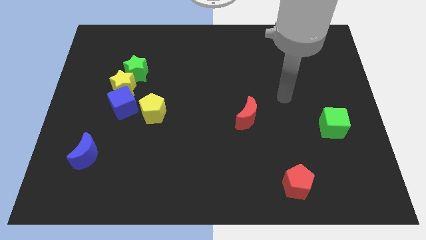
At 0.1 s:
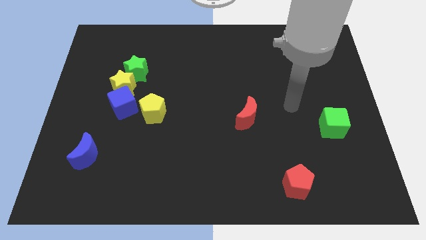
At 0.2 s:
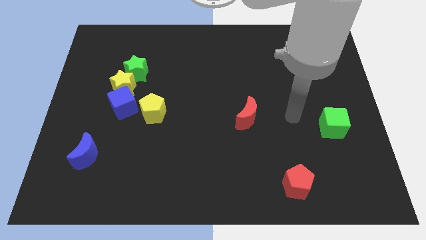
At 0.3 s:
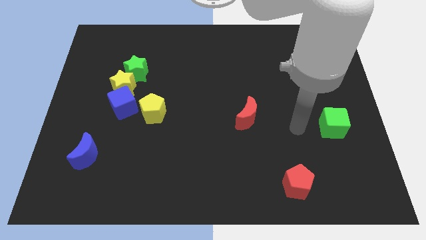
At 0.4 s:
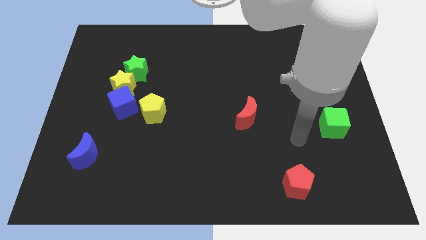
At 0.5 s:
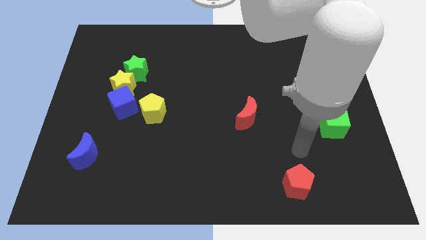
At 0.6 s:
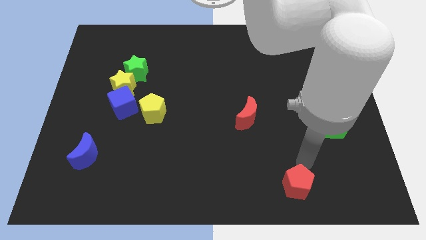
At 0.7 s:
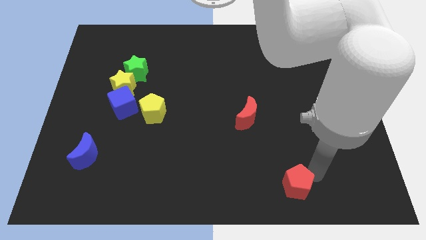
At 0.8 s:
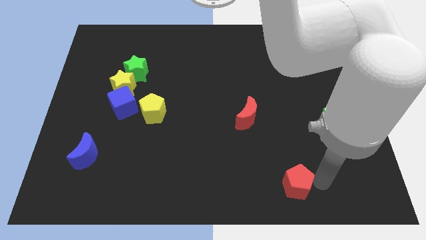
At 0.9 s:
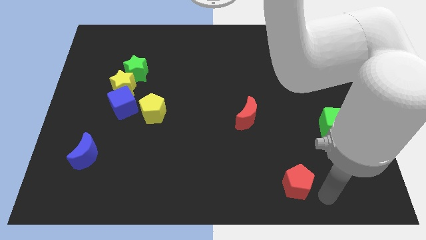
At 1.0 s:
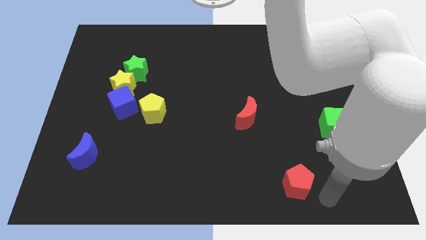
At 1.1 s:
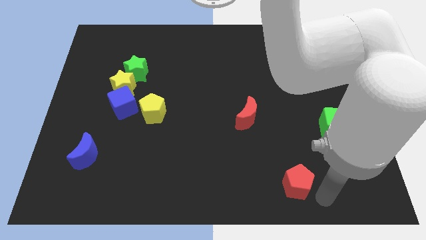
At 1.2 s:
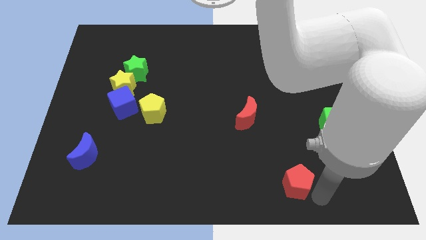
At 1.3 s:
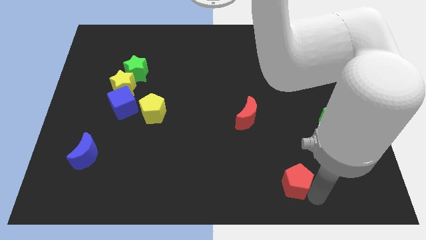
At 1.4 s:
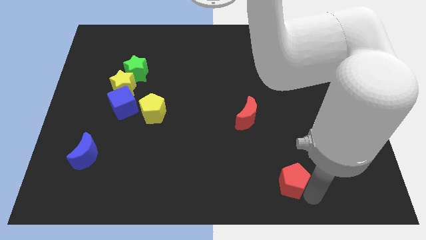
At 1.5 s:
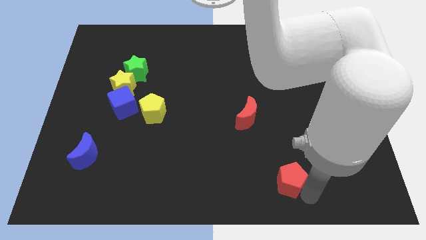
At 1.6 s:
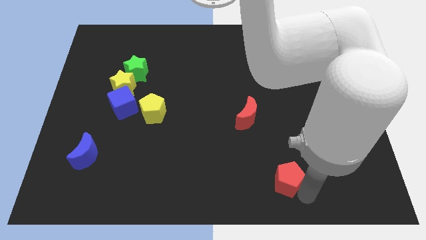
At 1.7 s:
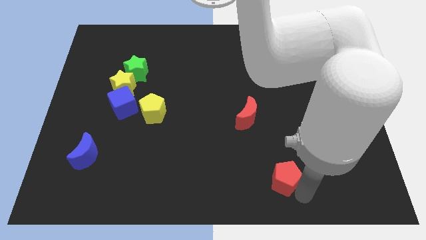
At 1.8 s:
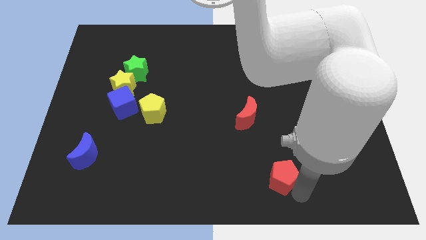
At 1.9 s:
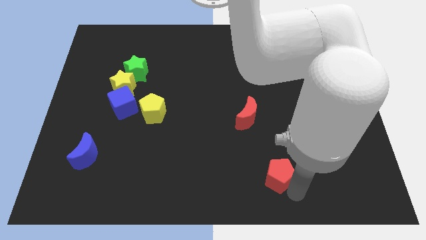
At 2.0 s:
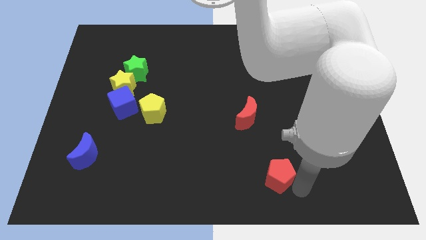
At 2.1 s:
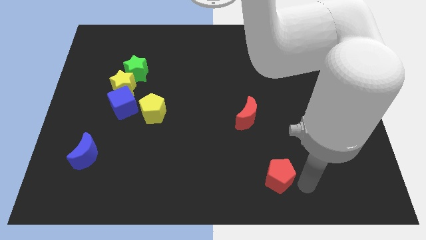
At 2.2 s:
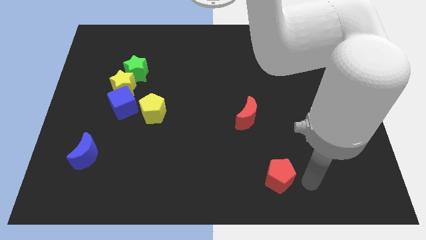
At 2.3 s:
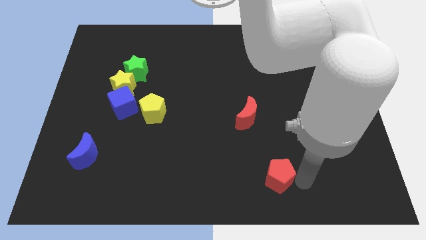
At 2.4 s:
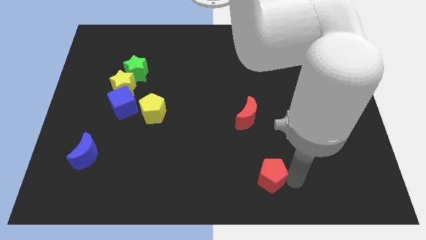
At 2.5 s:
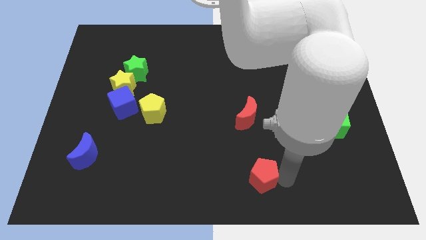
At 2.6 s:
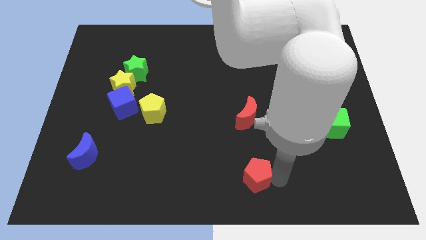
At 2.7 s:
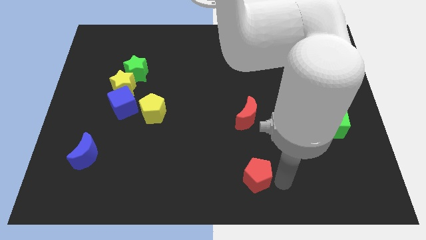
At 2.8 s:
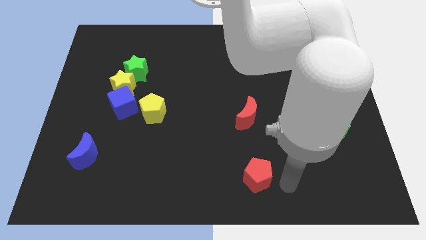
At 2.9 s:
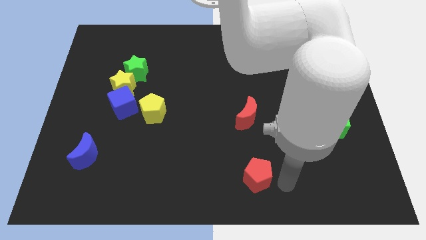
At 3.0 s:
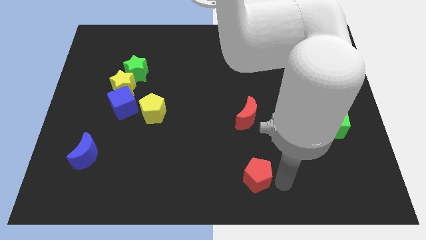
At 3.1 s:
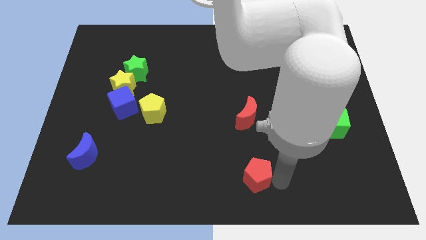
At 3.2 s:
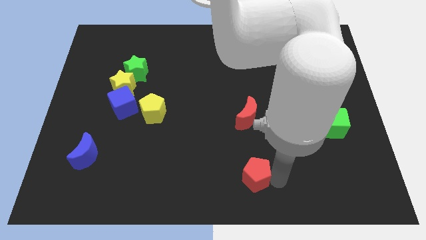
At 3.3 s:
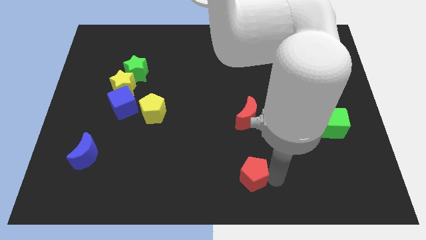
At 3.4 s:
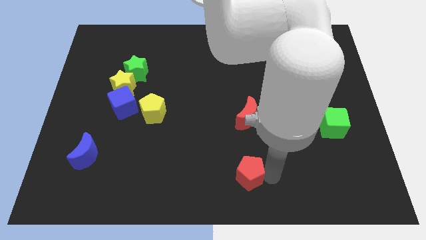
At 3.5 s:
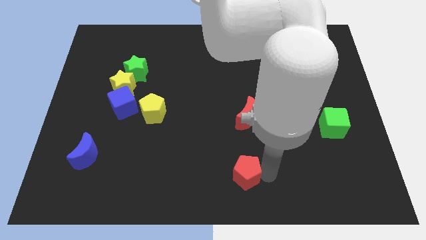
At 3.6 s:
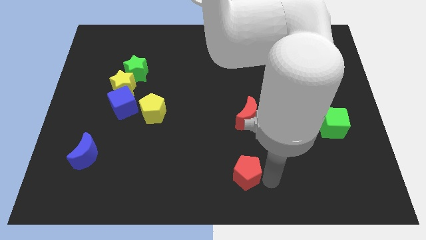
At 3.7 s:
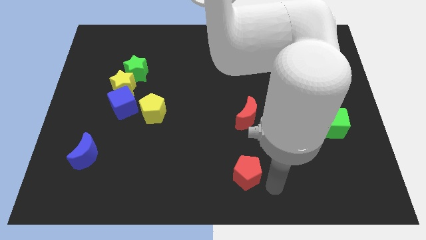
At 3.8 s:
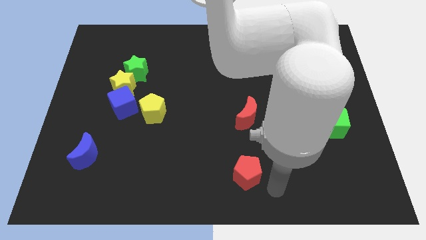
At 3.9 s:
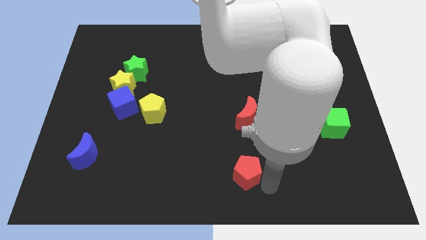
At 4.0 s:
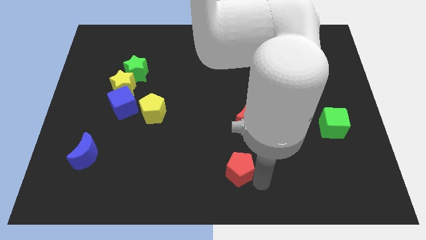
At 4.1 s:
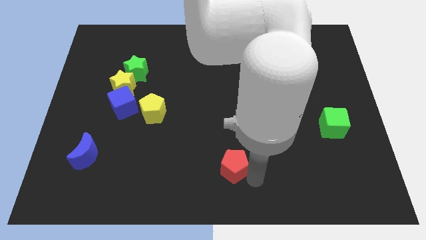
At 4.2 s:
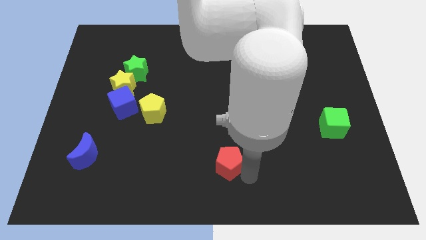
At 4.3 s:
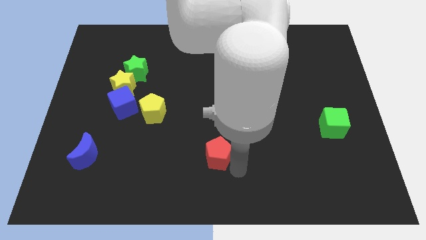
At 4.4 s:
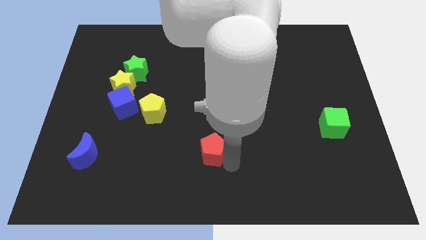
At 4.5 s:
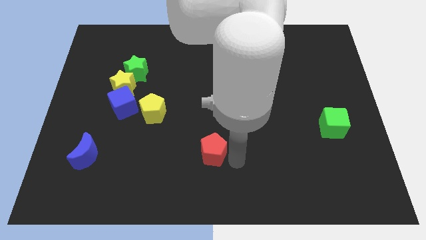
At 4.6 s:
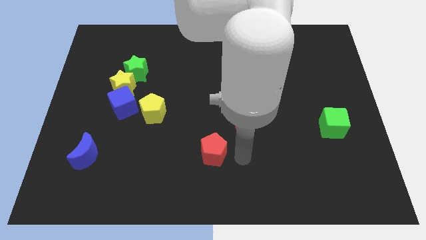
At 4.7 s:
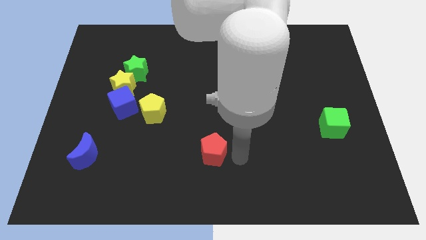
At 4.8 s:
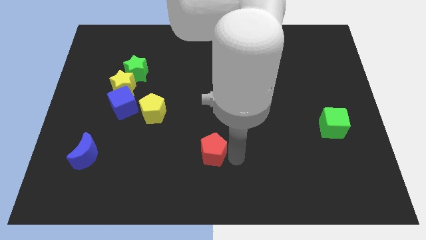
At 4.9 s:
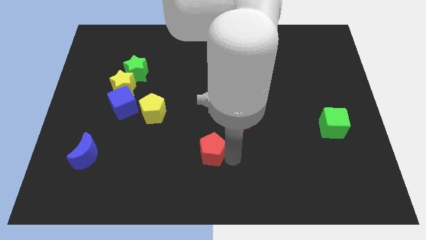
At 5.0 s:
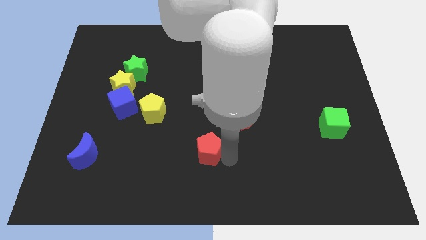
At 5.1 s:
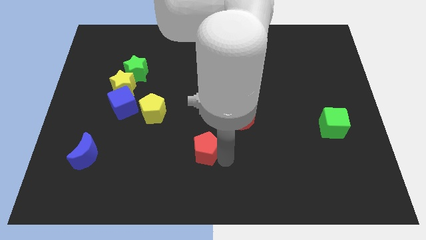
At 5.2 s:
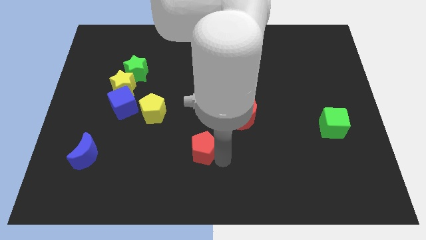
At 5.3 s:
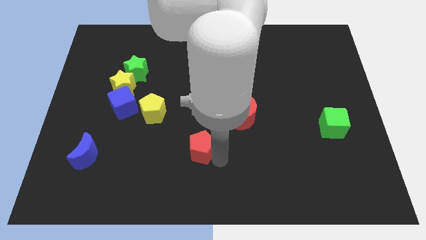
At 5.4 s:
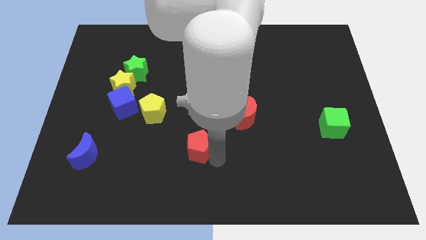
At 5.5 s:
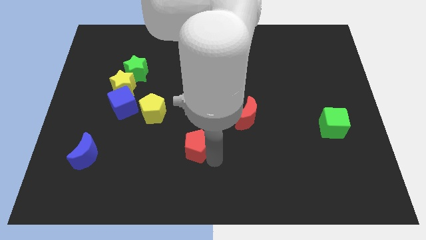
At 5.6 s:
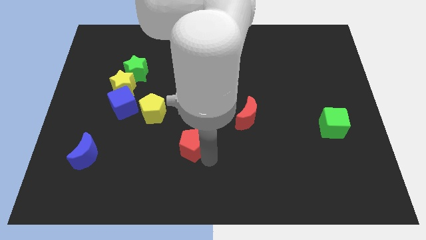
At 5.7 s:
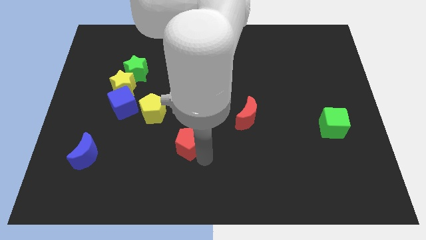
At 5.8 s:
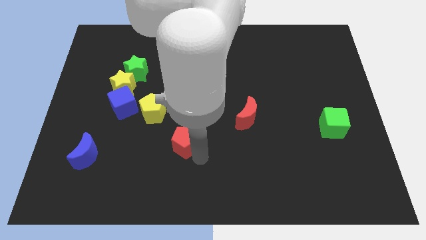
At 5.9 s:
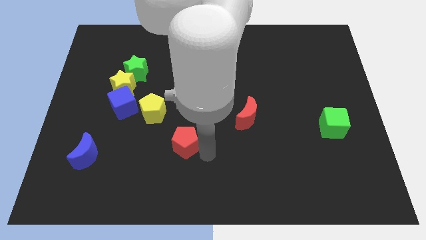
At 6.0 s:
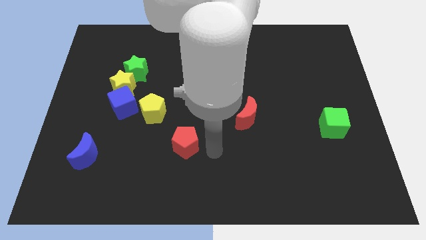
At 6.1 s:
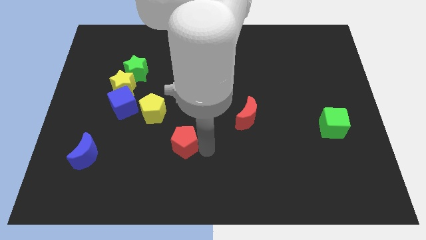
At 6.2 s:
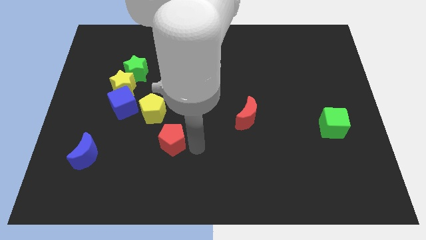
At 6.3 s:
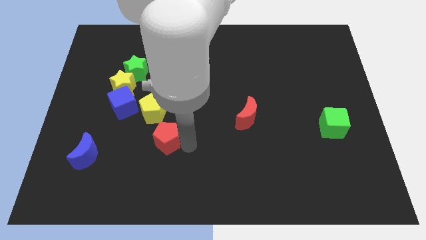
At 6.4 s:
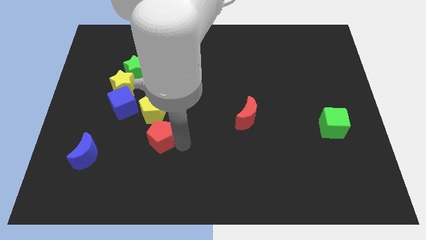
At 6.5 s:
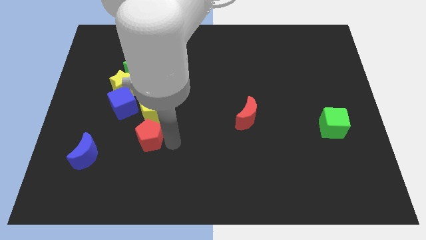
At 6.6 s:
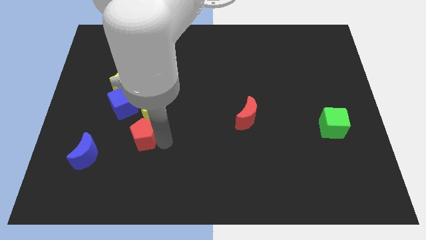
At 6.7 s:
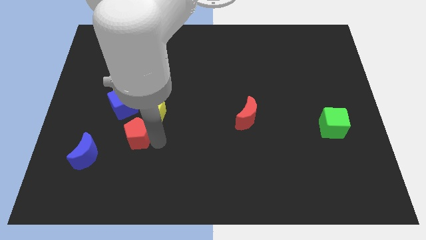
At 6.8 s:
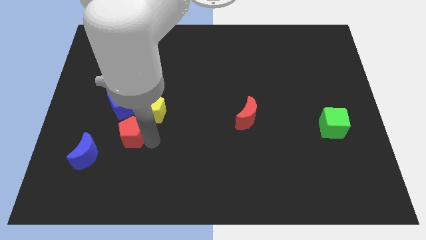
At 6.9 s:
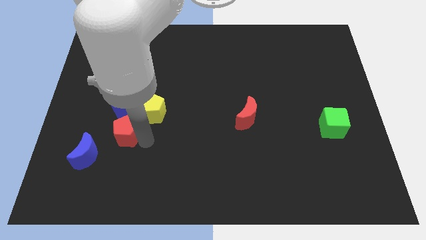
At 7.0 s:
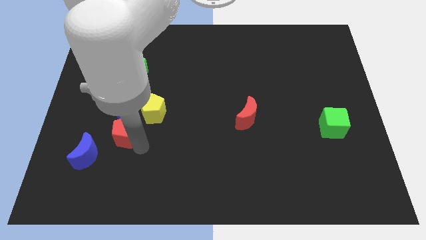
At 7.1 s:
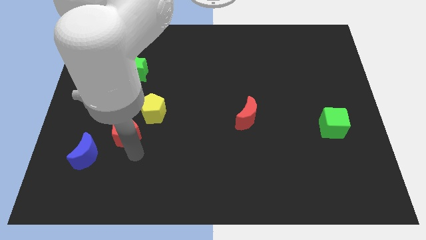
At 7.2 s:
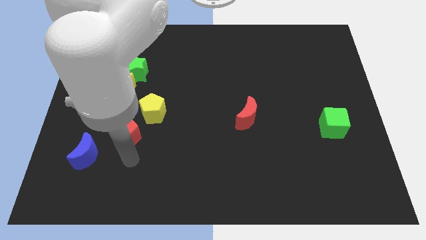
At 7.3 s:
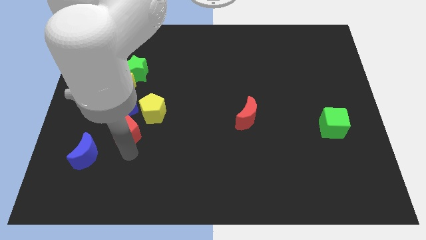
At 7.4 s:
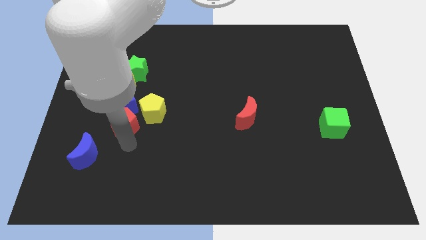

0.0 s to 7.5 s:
put the red pentagon to the blue cube
